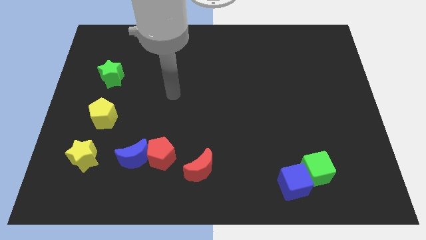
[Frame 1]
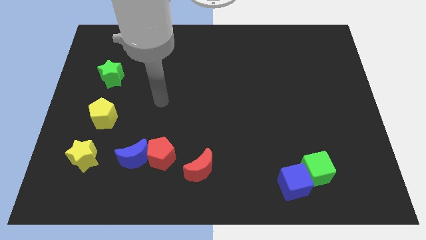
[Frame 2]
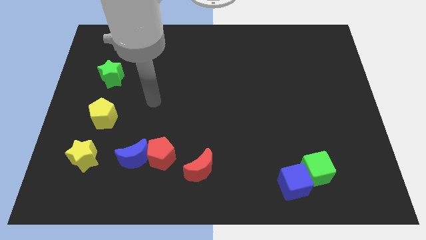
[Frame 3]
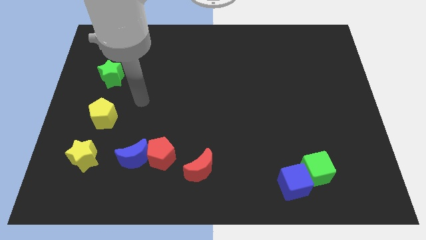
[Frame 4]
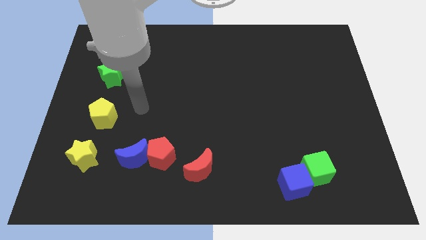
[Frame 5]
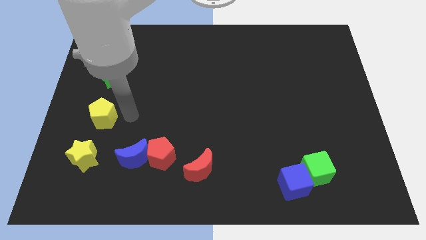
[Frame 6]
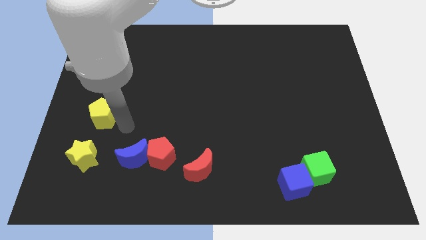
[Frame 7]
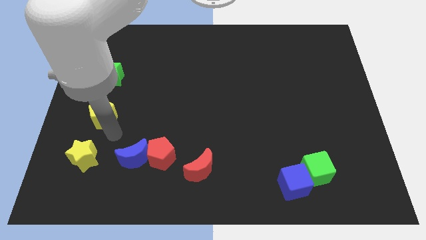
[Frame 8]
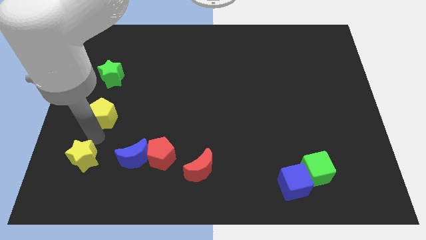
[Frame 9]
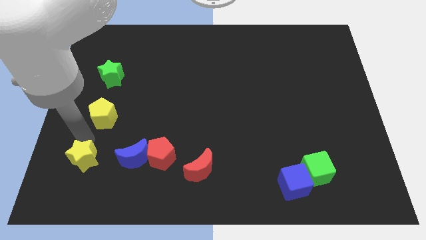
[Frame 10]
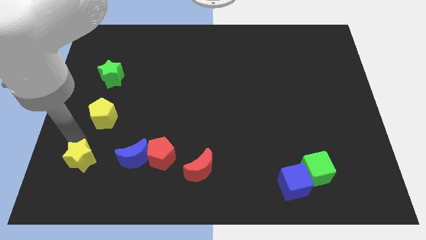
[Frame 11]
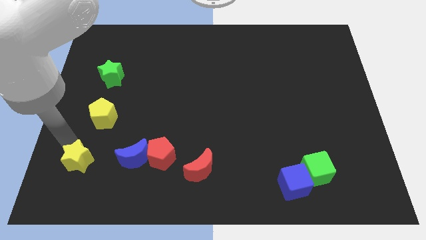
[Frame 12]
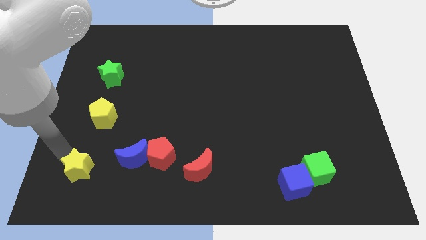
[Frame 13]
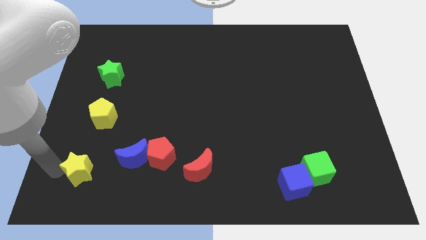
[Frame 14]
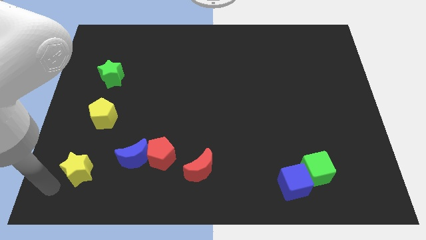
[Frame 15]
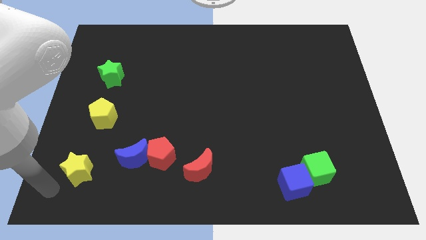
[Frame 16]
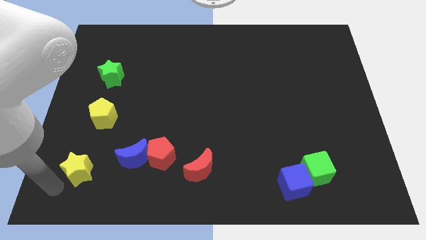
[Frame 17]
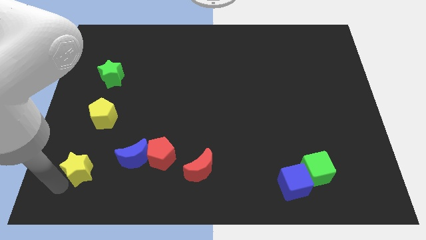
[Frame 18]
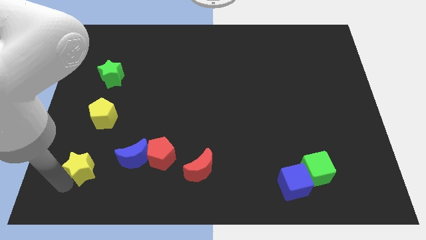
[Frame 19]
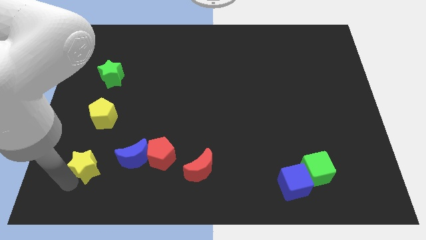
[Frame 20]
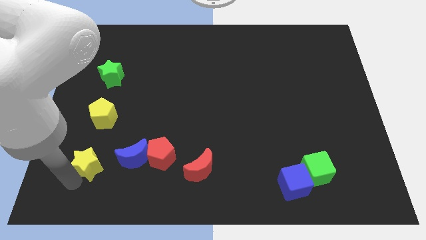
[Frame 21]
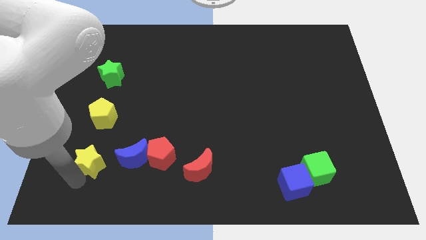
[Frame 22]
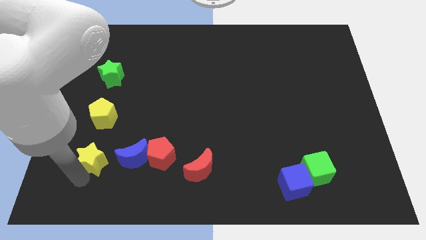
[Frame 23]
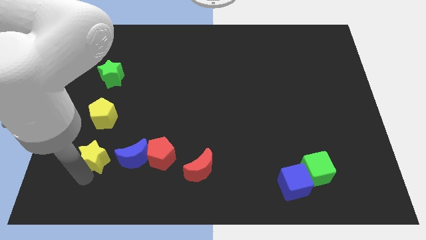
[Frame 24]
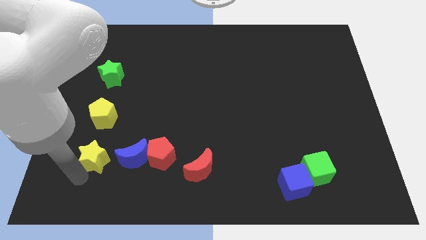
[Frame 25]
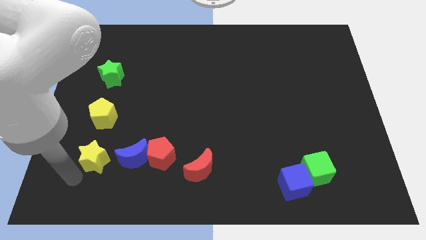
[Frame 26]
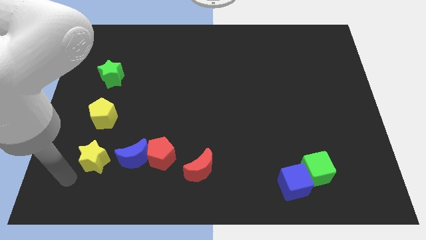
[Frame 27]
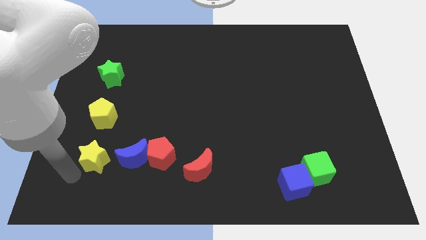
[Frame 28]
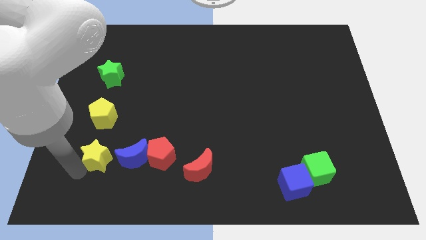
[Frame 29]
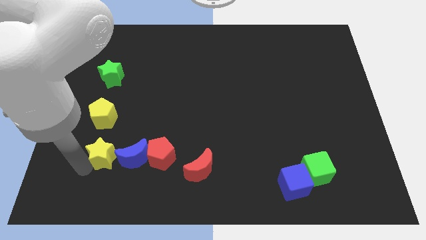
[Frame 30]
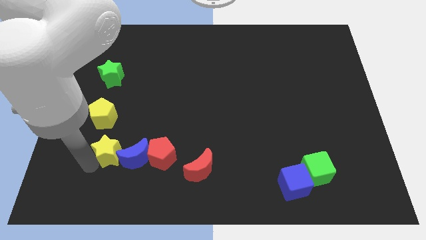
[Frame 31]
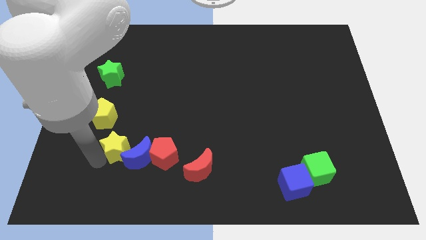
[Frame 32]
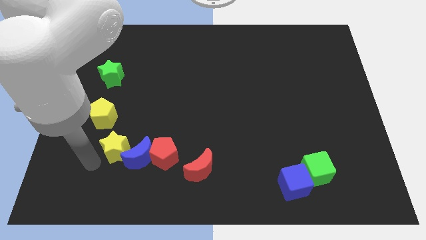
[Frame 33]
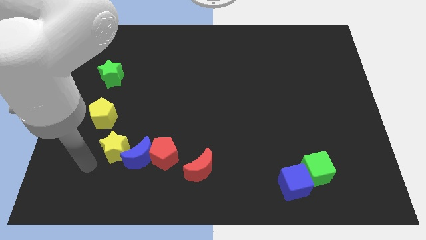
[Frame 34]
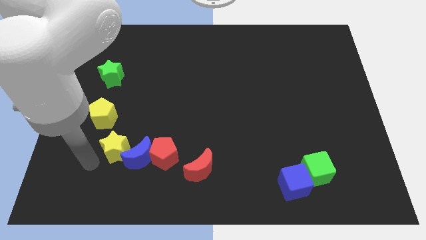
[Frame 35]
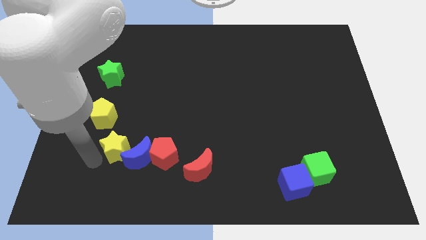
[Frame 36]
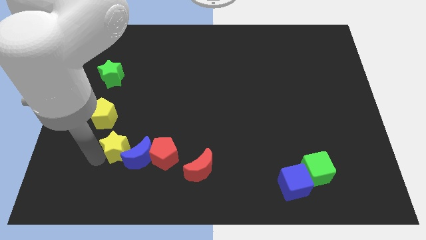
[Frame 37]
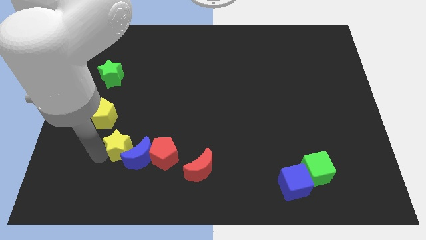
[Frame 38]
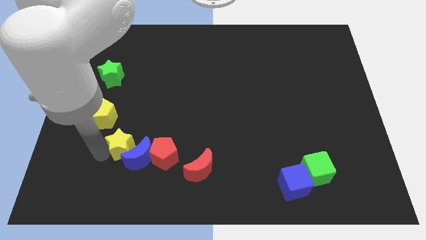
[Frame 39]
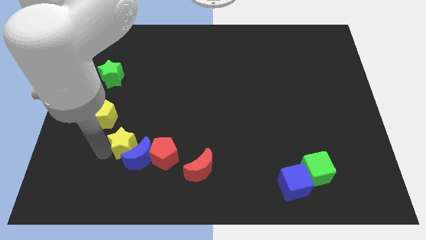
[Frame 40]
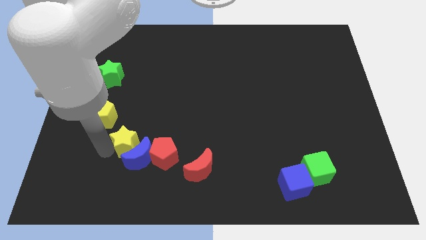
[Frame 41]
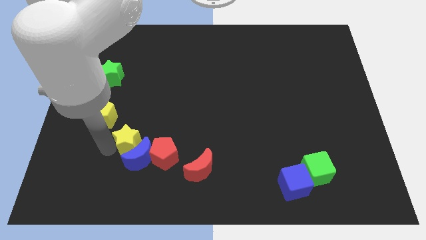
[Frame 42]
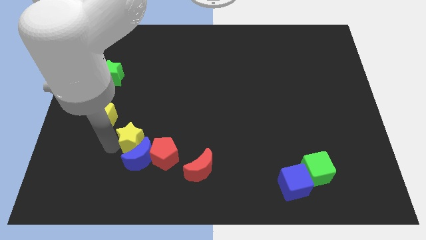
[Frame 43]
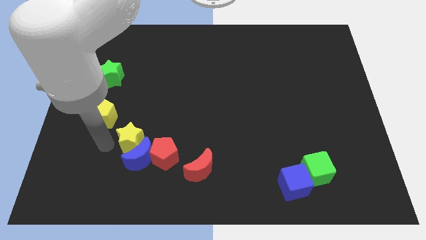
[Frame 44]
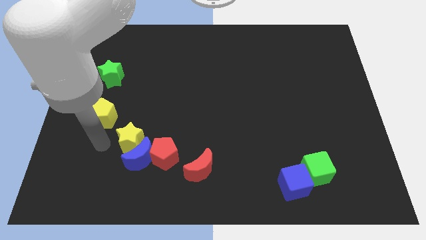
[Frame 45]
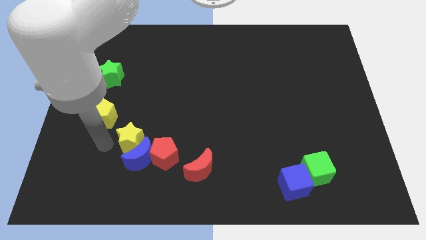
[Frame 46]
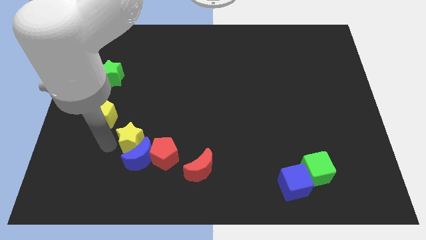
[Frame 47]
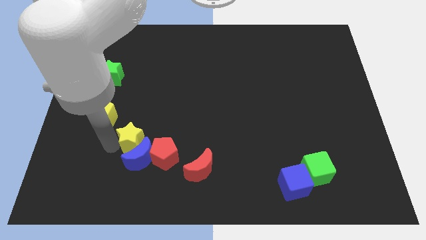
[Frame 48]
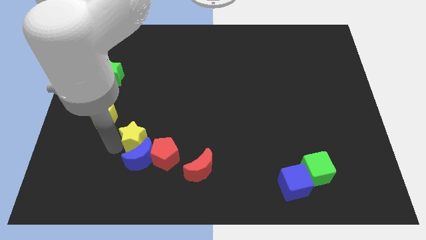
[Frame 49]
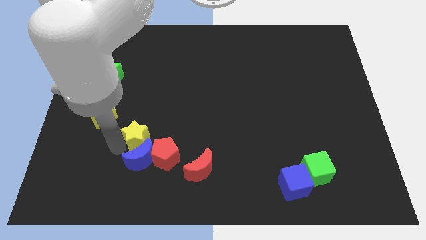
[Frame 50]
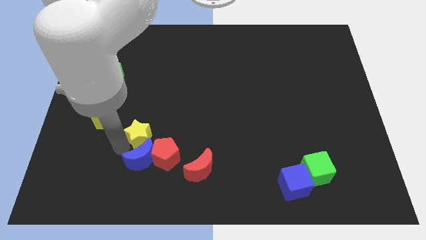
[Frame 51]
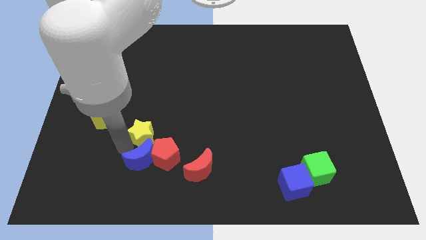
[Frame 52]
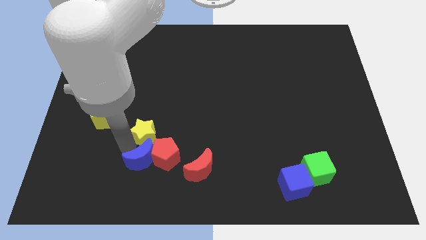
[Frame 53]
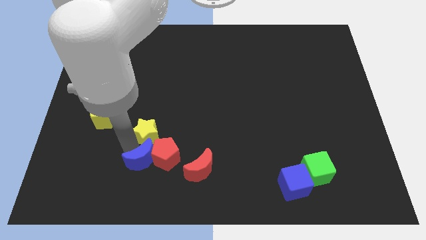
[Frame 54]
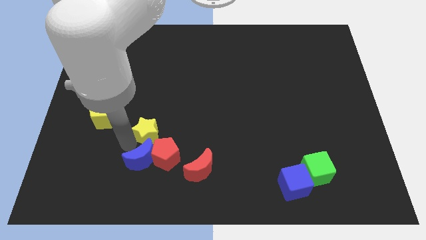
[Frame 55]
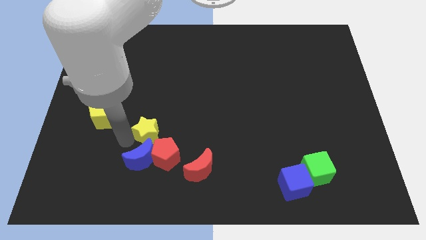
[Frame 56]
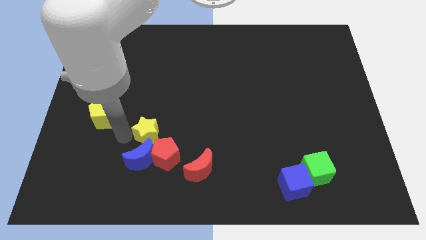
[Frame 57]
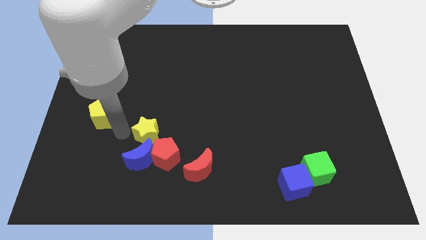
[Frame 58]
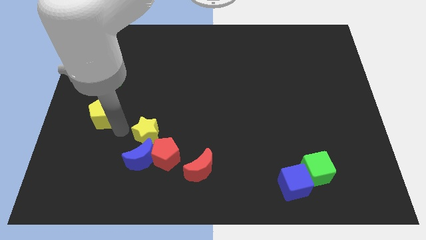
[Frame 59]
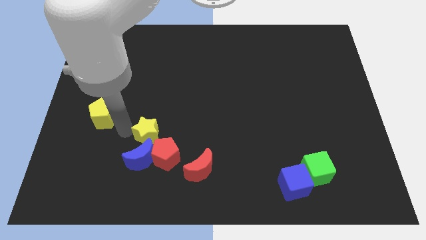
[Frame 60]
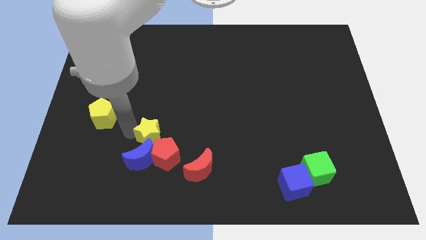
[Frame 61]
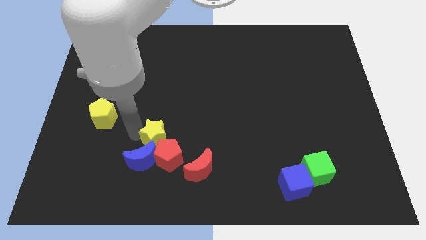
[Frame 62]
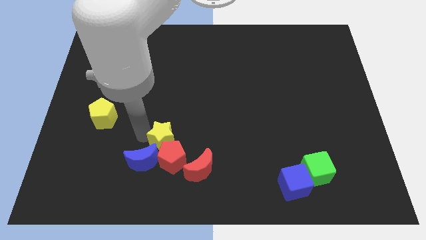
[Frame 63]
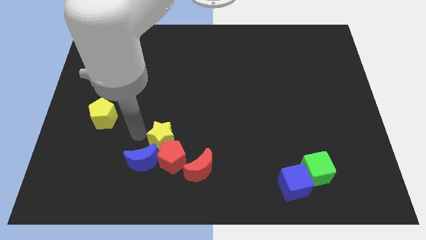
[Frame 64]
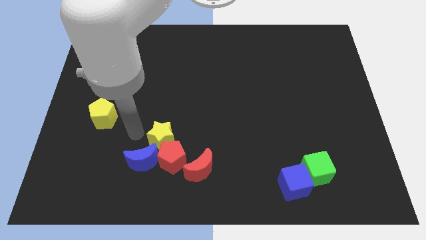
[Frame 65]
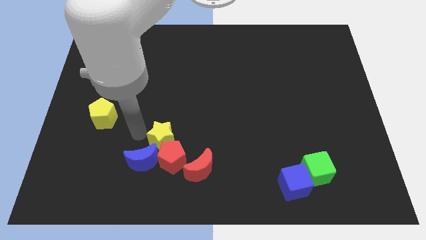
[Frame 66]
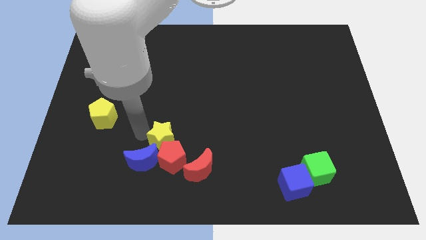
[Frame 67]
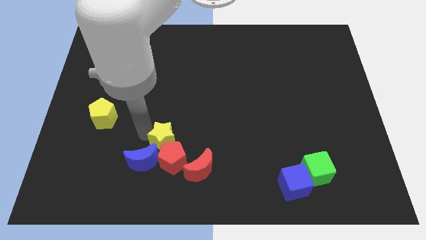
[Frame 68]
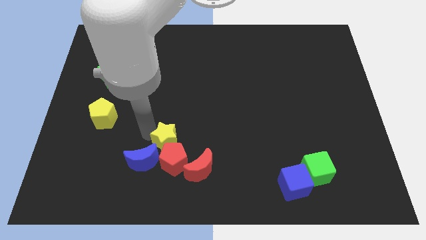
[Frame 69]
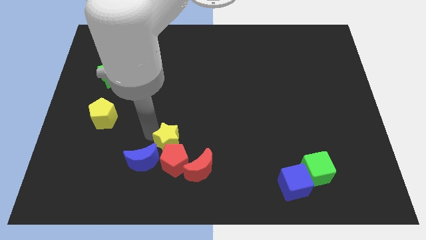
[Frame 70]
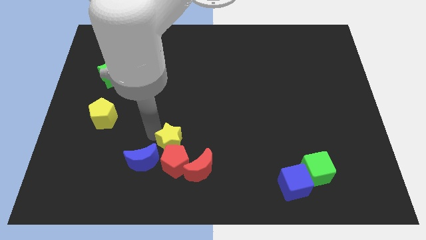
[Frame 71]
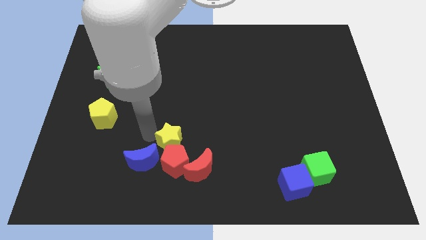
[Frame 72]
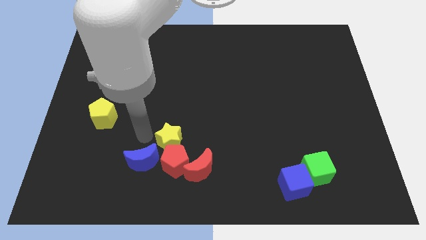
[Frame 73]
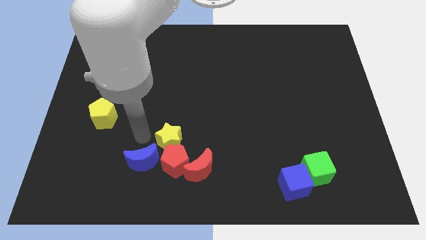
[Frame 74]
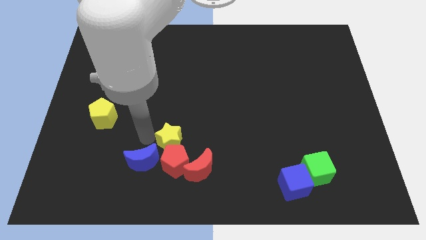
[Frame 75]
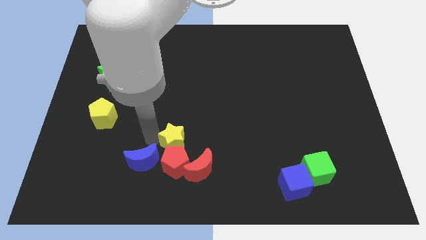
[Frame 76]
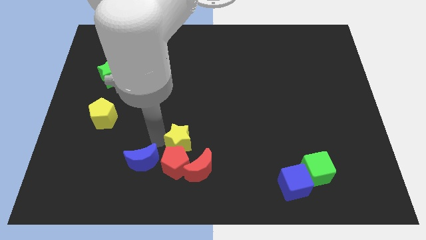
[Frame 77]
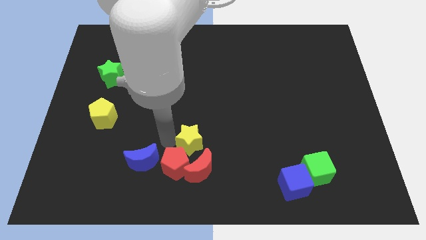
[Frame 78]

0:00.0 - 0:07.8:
move the yellow star to the right
